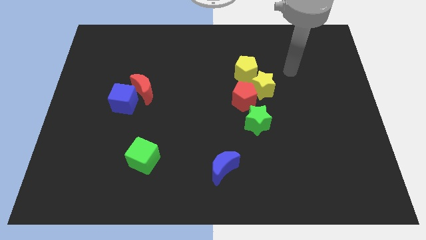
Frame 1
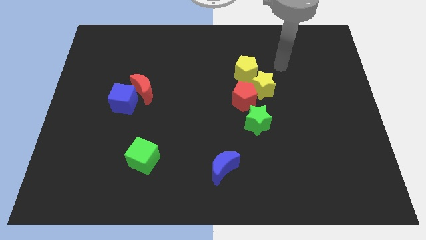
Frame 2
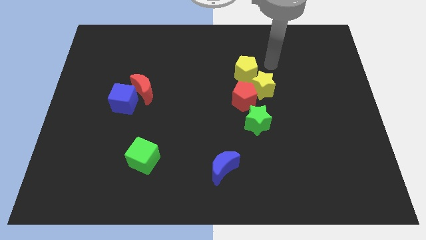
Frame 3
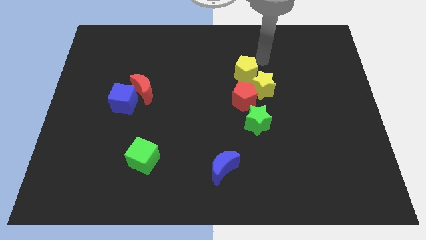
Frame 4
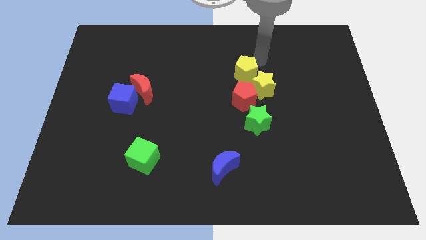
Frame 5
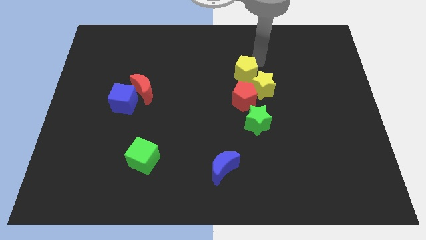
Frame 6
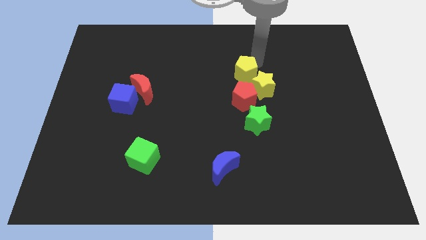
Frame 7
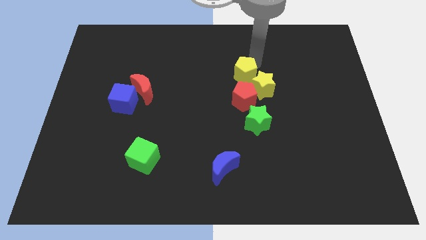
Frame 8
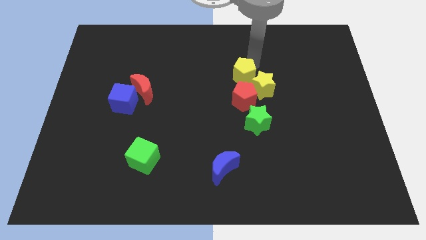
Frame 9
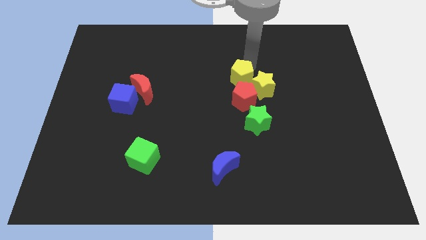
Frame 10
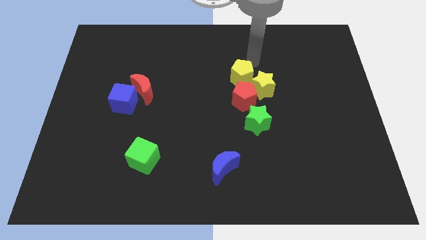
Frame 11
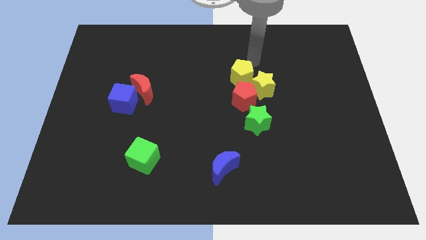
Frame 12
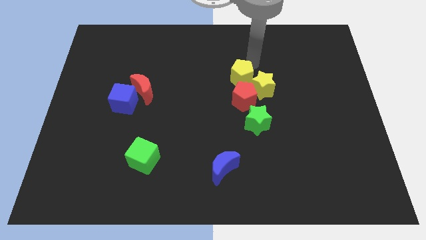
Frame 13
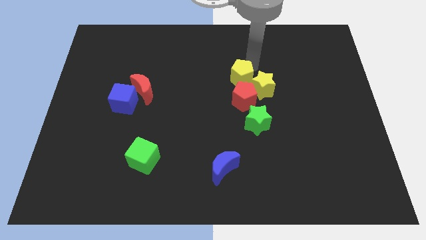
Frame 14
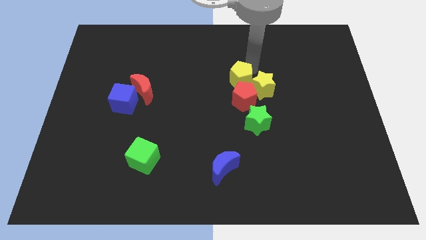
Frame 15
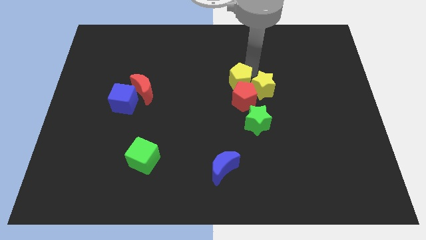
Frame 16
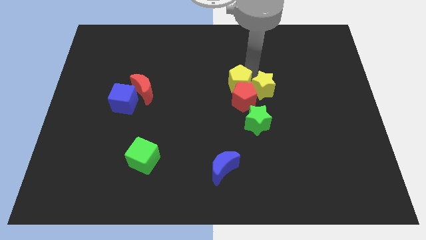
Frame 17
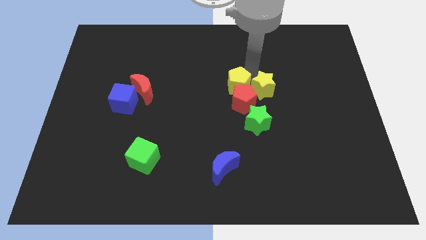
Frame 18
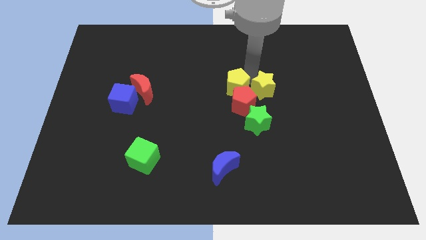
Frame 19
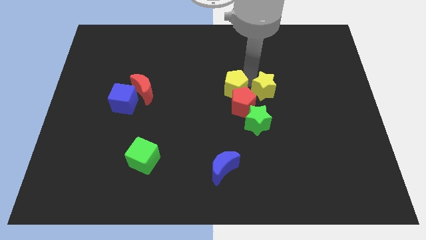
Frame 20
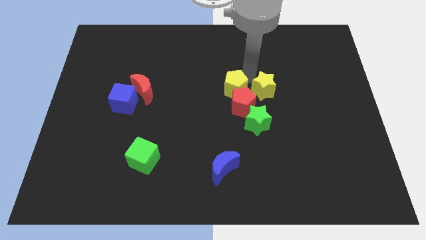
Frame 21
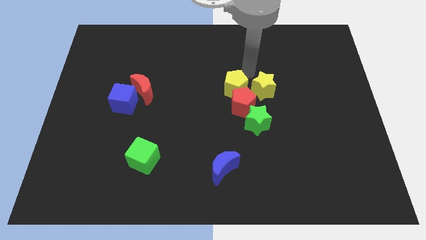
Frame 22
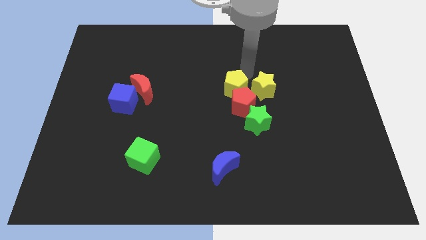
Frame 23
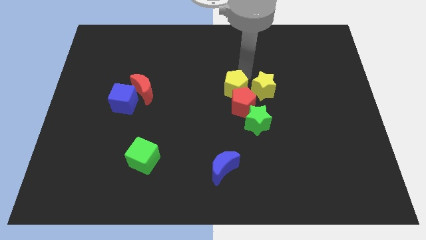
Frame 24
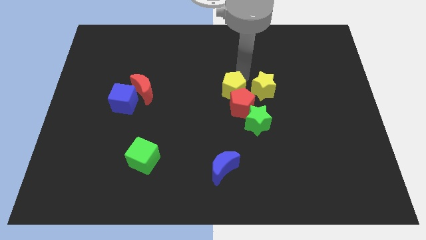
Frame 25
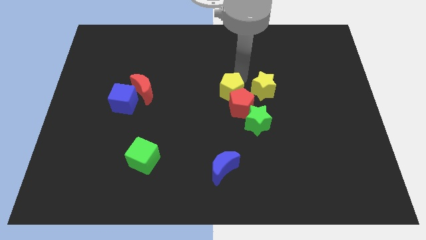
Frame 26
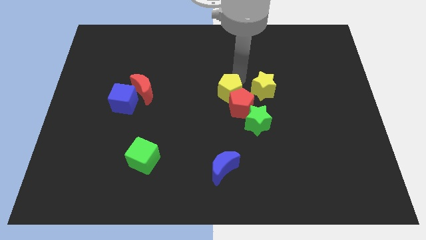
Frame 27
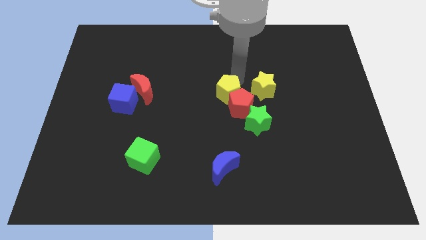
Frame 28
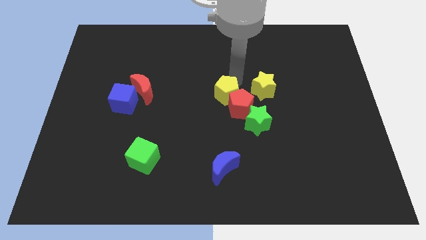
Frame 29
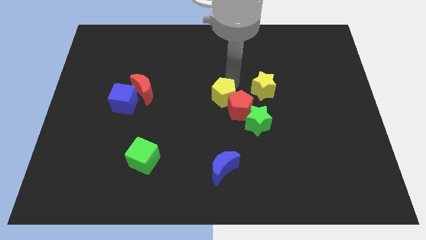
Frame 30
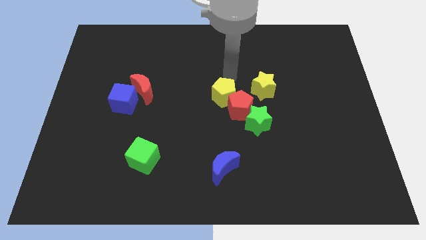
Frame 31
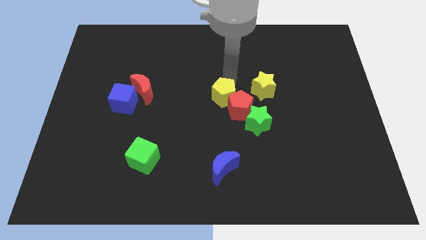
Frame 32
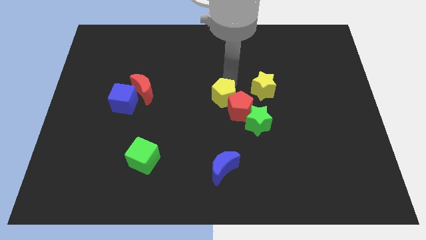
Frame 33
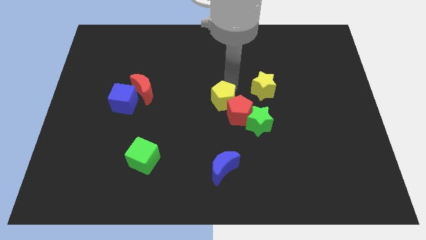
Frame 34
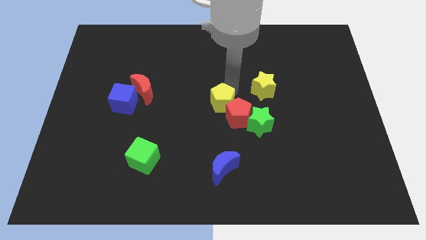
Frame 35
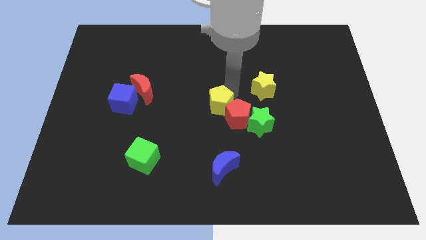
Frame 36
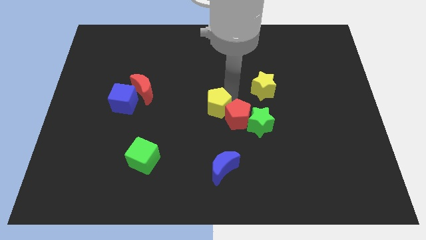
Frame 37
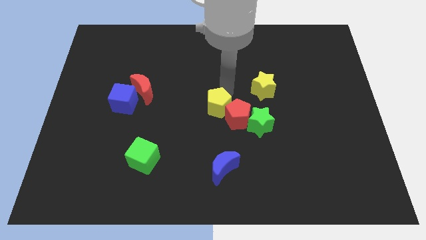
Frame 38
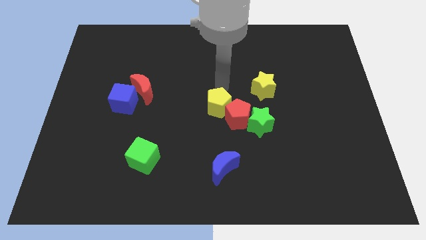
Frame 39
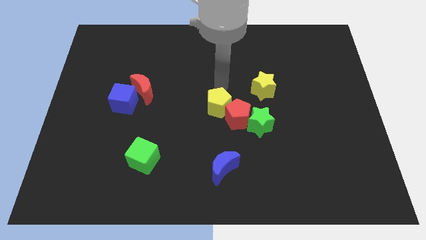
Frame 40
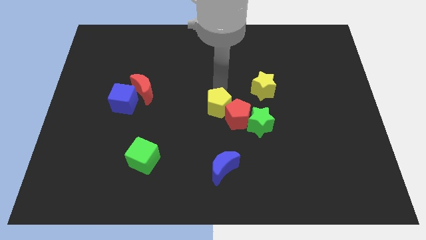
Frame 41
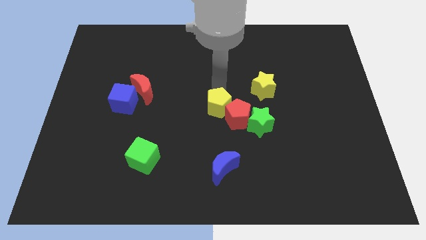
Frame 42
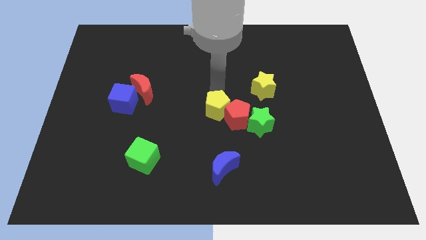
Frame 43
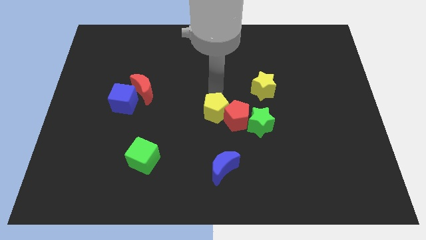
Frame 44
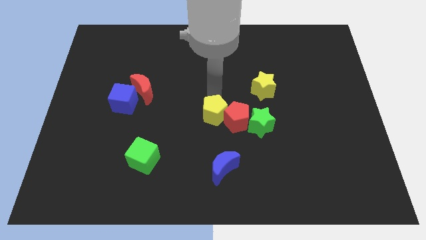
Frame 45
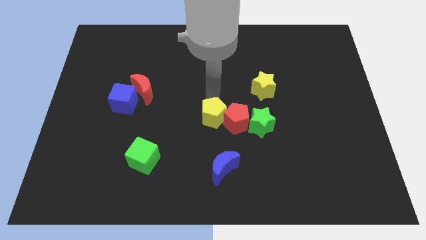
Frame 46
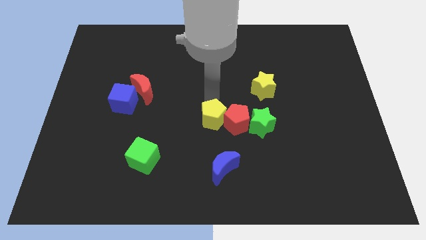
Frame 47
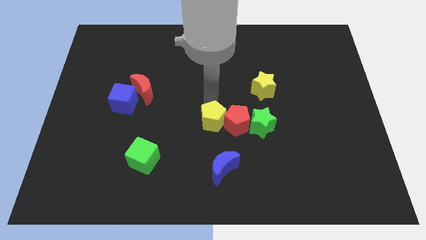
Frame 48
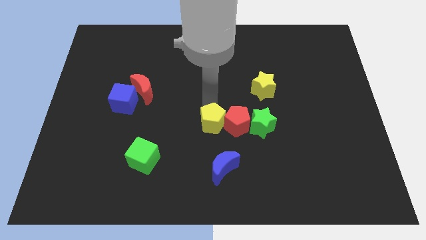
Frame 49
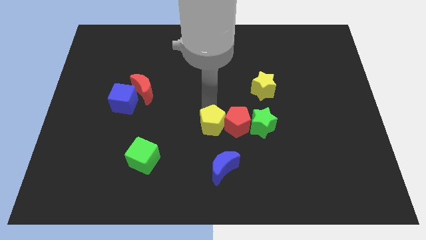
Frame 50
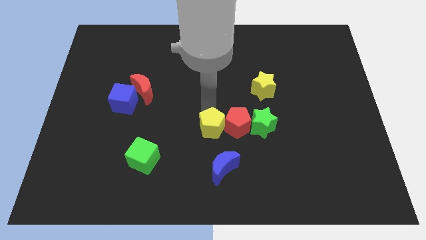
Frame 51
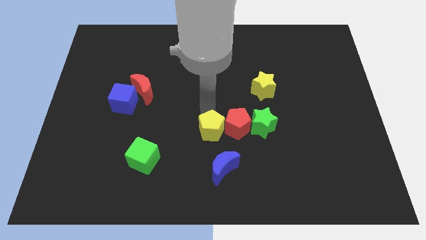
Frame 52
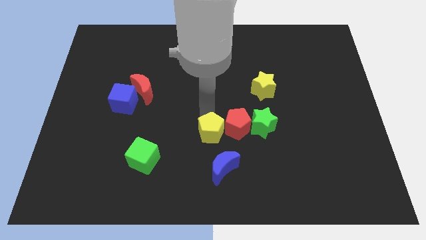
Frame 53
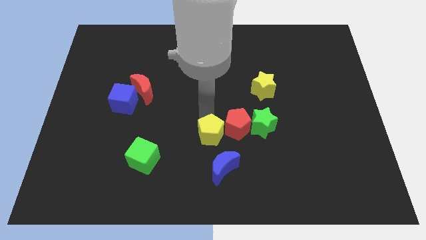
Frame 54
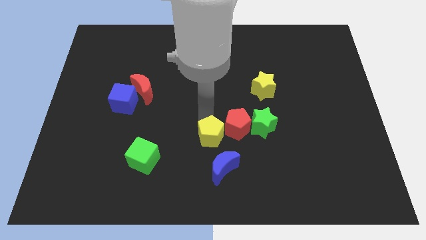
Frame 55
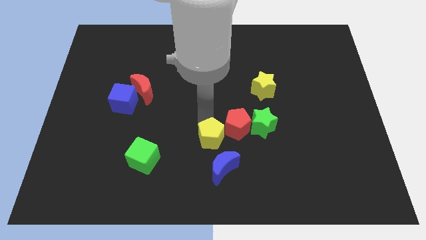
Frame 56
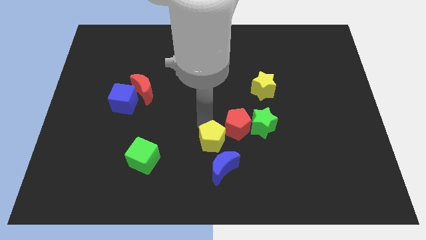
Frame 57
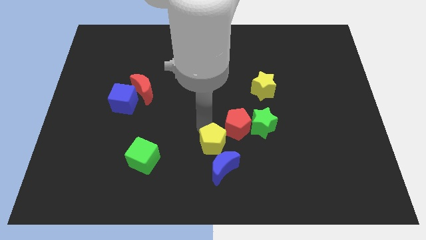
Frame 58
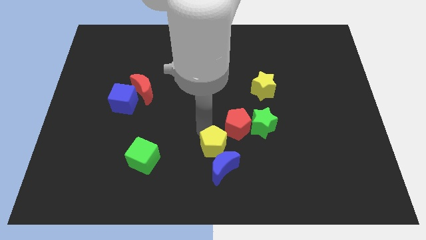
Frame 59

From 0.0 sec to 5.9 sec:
push the yellow pentagon towards the blue moon

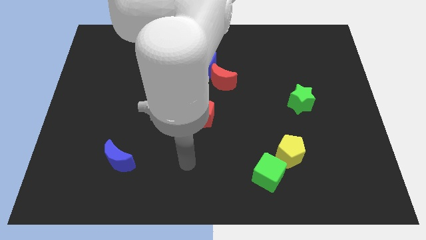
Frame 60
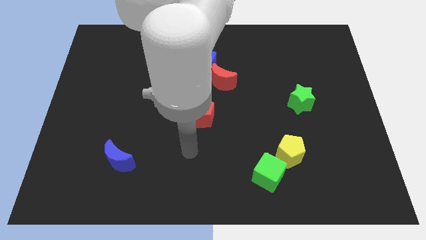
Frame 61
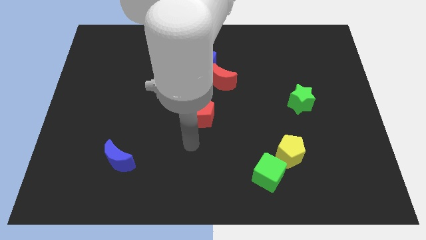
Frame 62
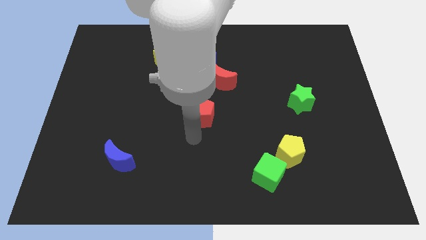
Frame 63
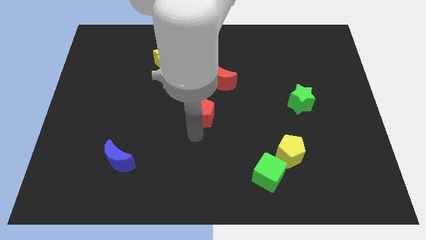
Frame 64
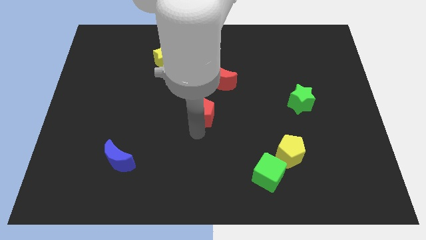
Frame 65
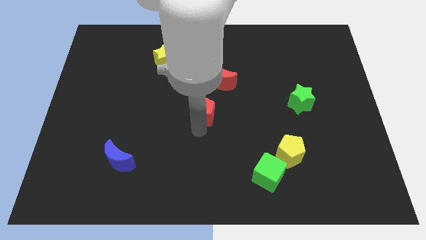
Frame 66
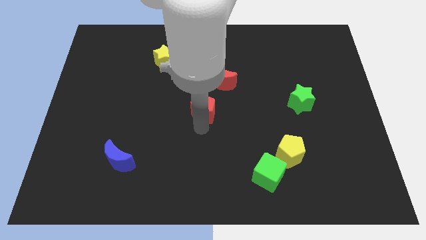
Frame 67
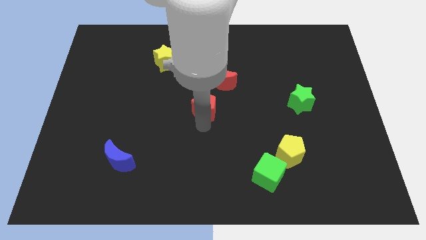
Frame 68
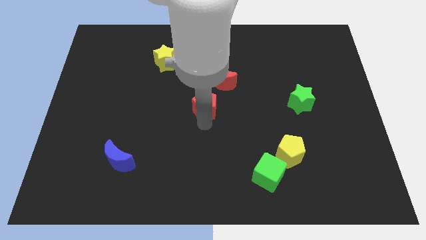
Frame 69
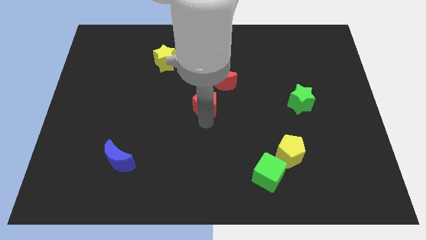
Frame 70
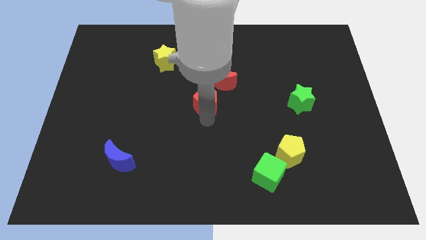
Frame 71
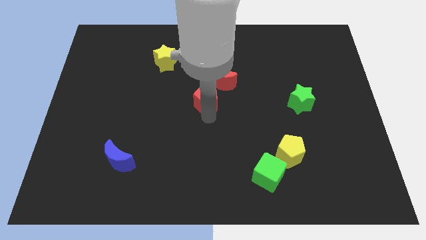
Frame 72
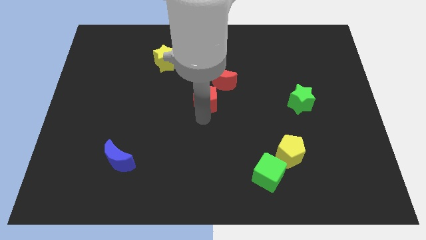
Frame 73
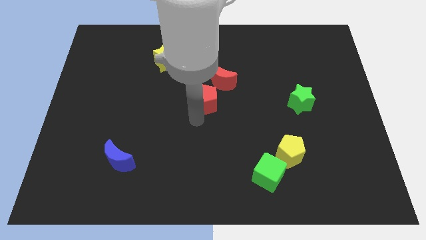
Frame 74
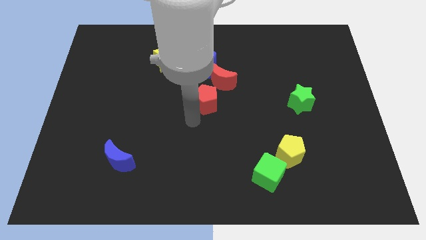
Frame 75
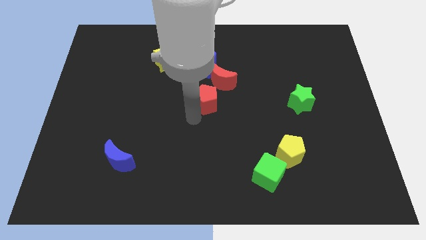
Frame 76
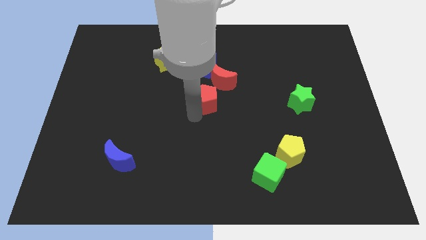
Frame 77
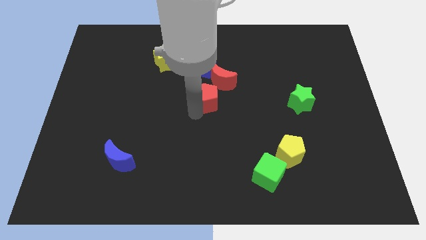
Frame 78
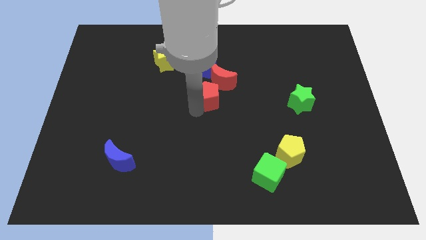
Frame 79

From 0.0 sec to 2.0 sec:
slide the red pentagon close to the red moon
